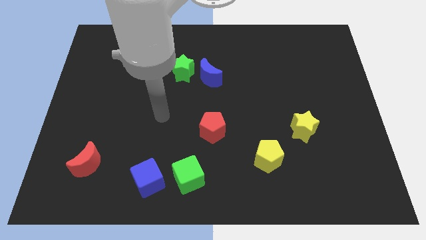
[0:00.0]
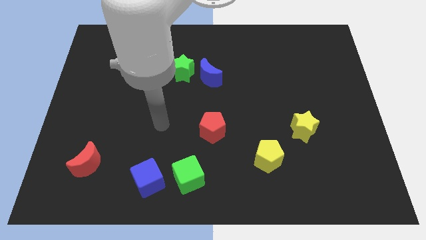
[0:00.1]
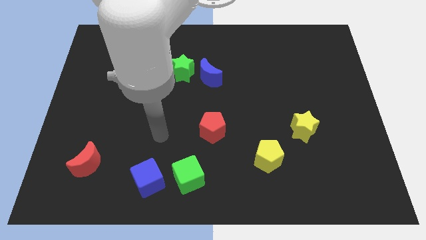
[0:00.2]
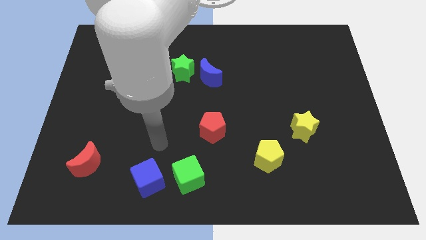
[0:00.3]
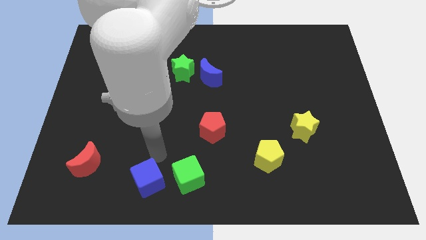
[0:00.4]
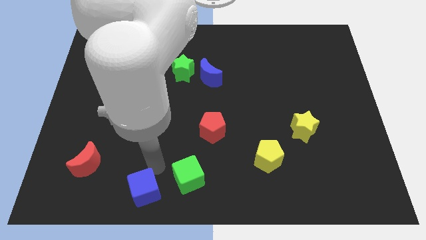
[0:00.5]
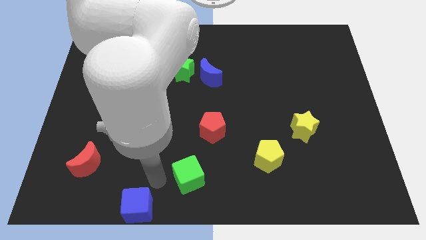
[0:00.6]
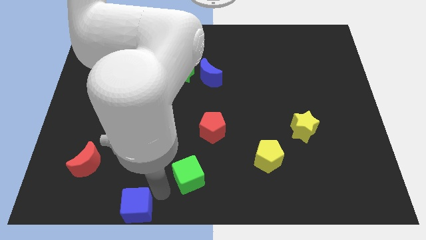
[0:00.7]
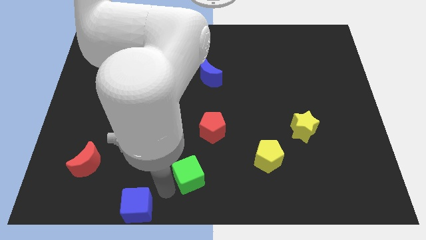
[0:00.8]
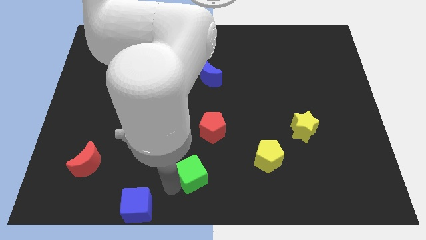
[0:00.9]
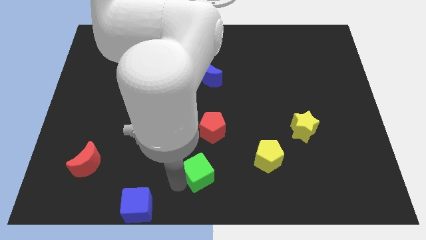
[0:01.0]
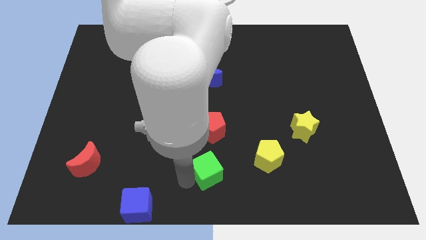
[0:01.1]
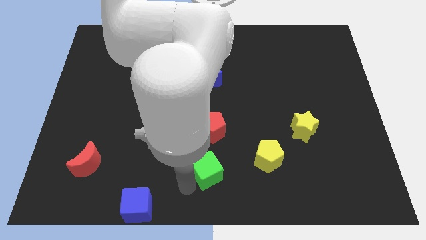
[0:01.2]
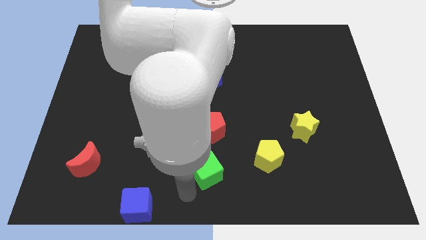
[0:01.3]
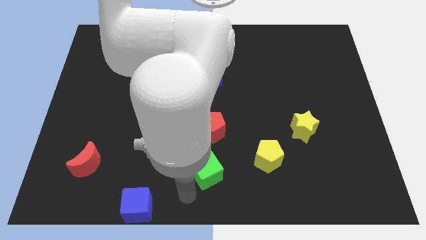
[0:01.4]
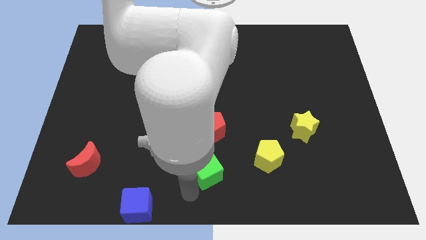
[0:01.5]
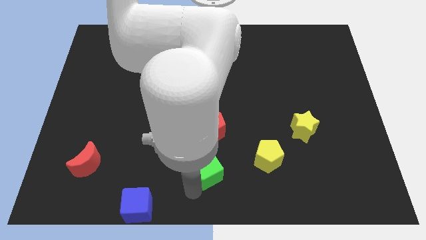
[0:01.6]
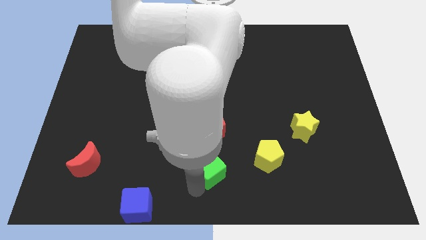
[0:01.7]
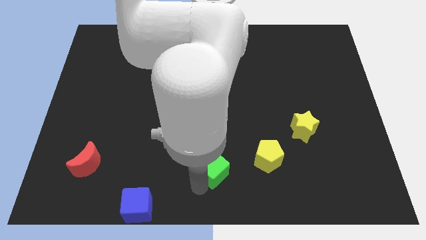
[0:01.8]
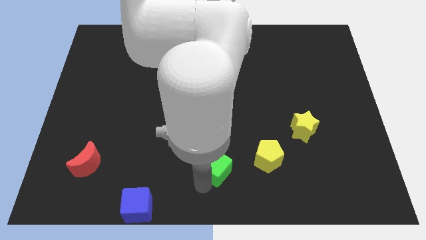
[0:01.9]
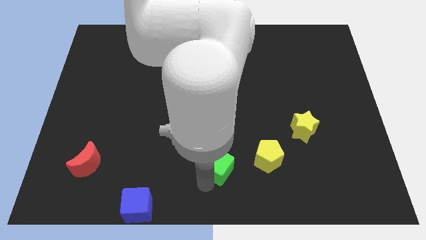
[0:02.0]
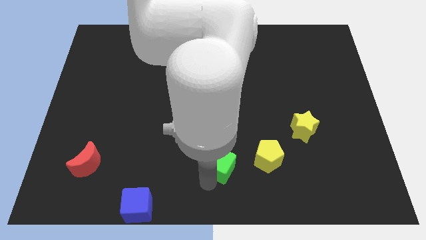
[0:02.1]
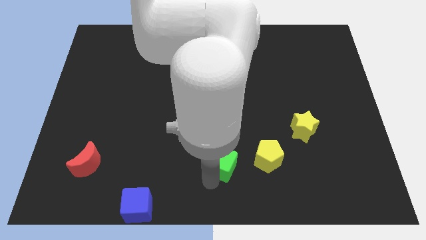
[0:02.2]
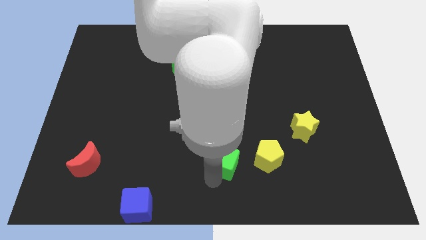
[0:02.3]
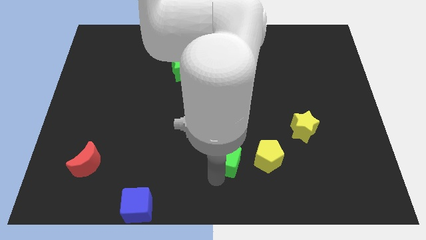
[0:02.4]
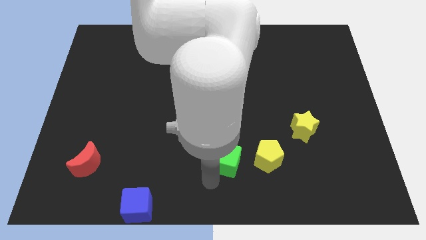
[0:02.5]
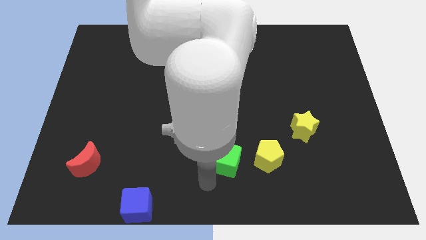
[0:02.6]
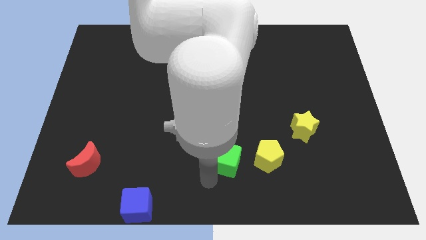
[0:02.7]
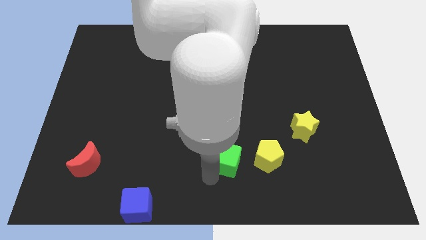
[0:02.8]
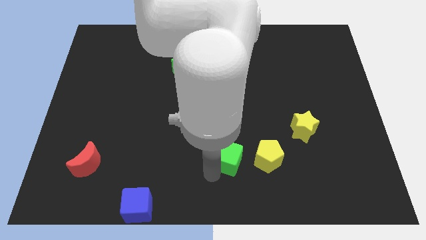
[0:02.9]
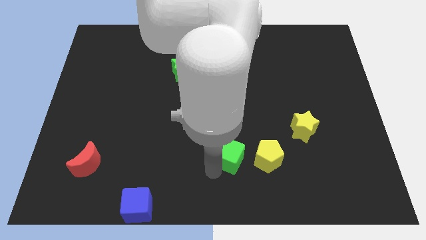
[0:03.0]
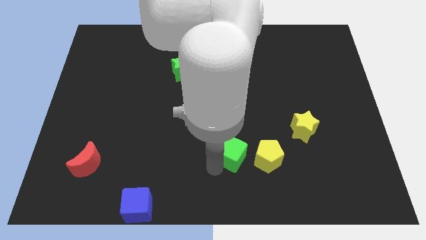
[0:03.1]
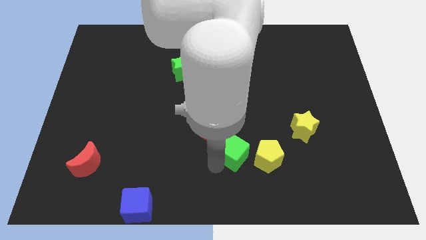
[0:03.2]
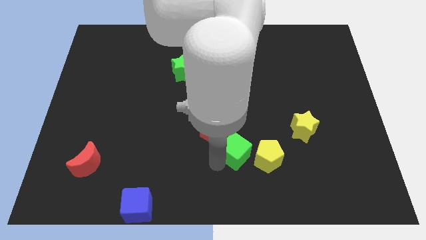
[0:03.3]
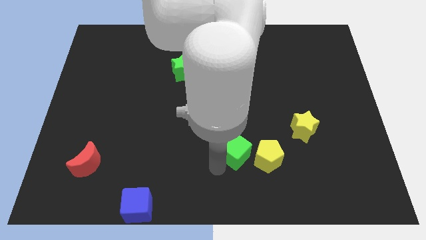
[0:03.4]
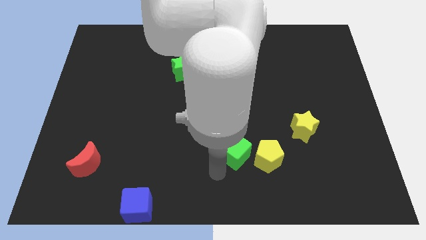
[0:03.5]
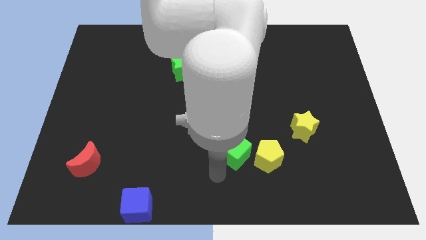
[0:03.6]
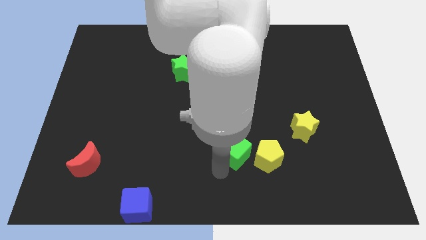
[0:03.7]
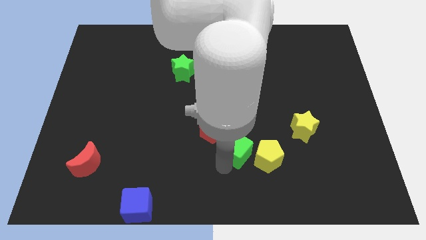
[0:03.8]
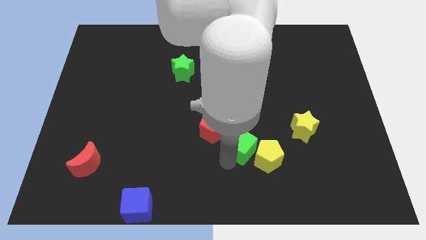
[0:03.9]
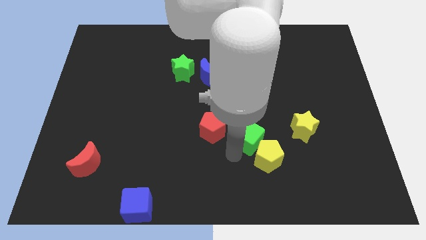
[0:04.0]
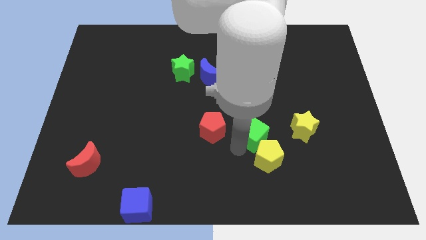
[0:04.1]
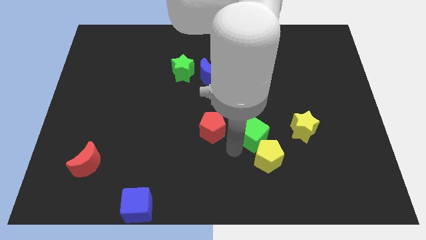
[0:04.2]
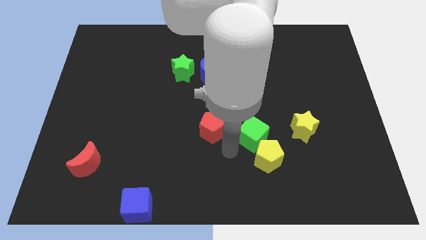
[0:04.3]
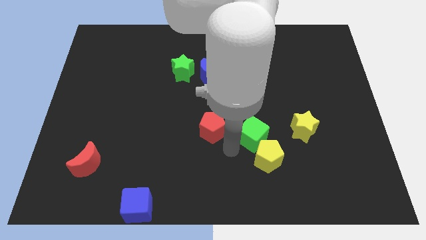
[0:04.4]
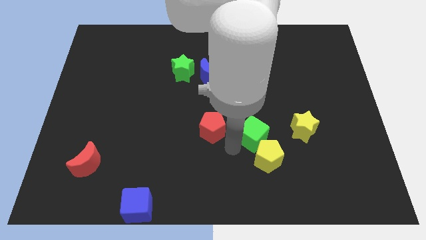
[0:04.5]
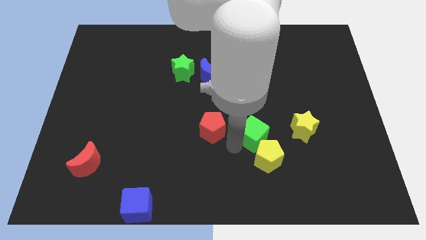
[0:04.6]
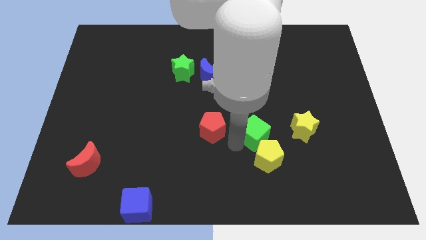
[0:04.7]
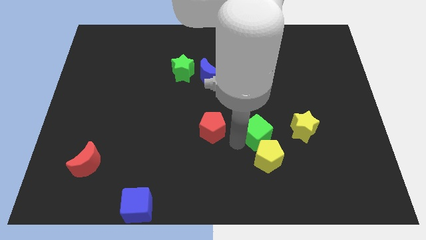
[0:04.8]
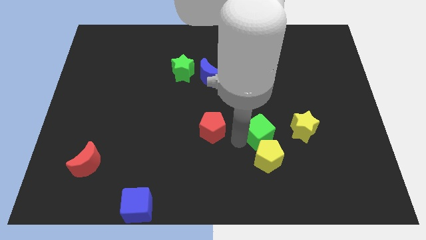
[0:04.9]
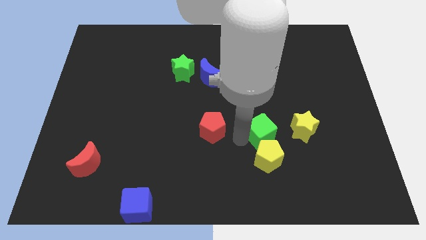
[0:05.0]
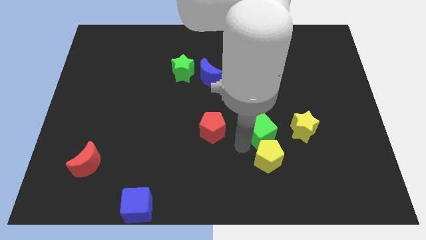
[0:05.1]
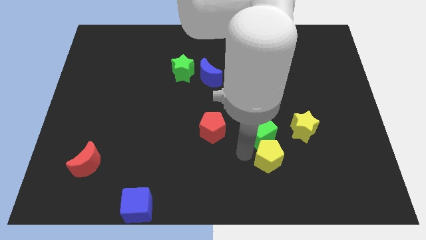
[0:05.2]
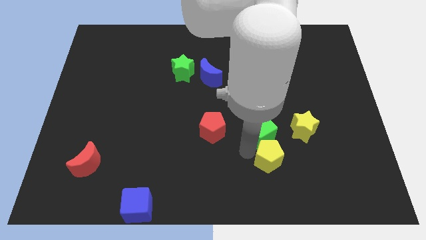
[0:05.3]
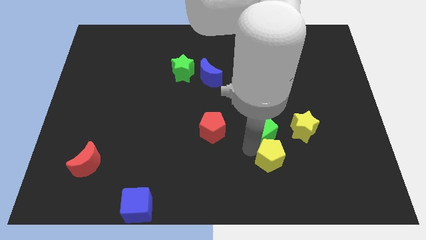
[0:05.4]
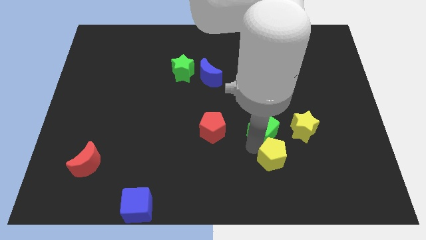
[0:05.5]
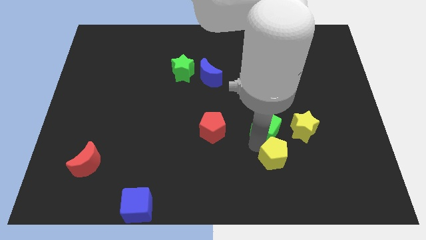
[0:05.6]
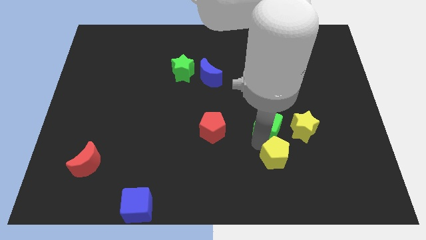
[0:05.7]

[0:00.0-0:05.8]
push the green cube upwards and right diagonally

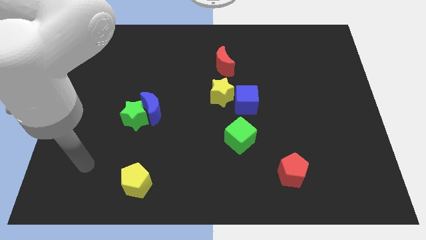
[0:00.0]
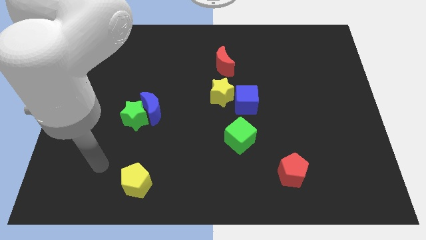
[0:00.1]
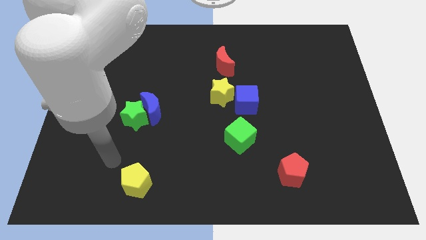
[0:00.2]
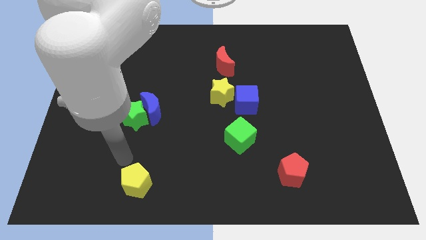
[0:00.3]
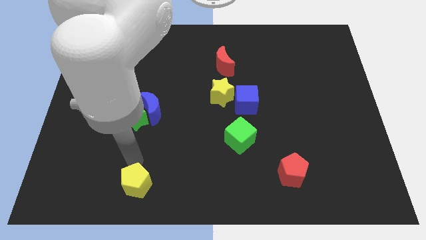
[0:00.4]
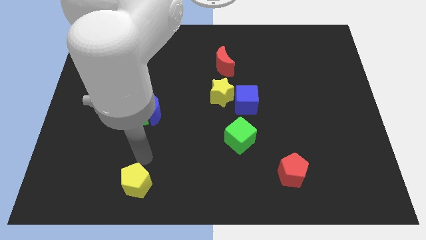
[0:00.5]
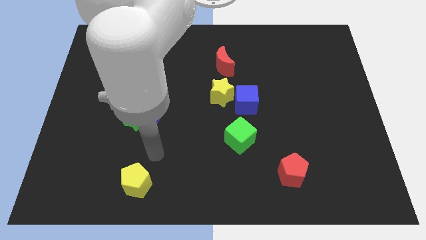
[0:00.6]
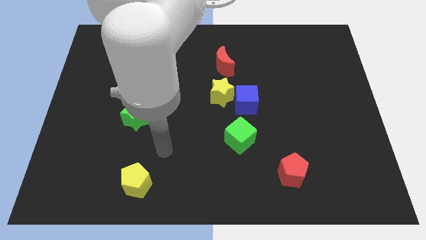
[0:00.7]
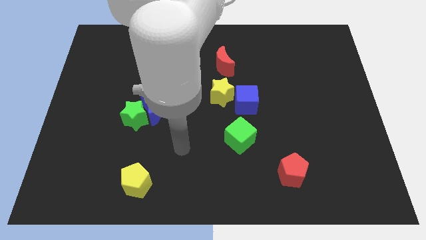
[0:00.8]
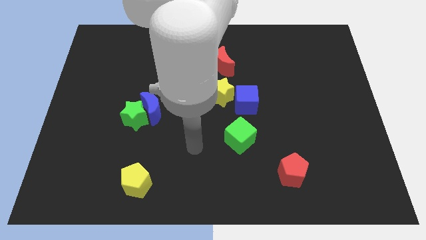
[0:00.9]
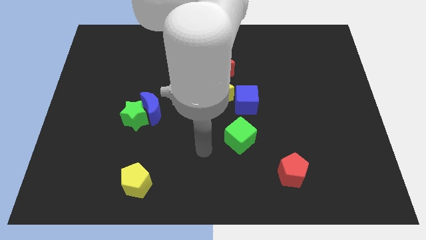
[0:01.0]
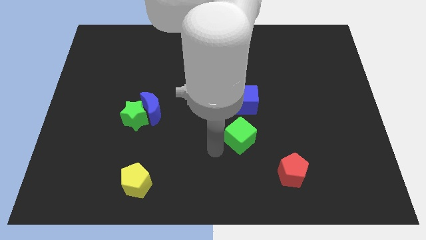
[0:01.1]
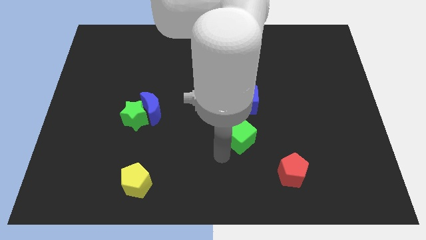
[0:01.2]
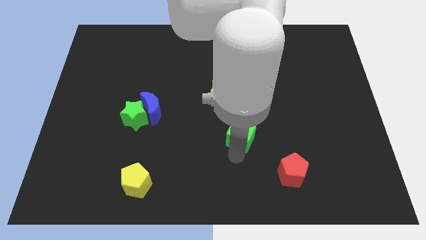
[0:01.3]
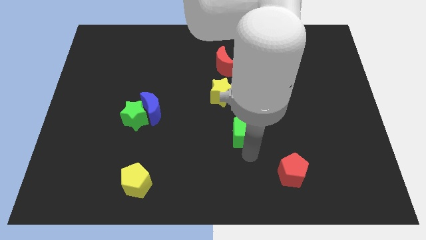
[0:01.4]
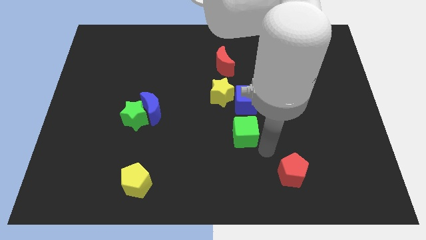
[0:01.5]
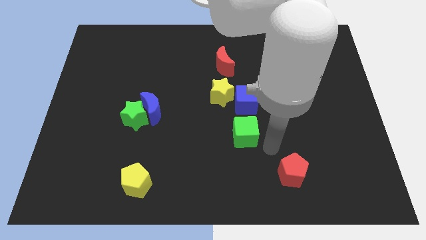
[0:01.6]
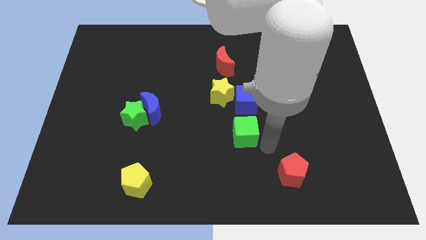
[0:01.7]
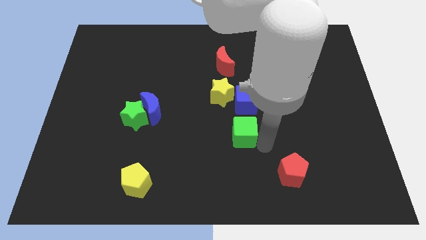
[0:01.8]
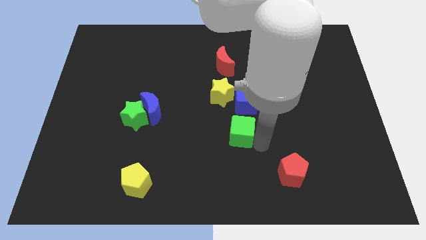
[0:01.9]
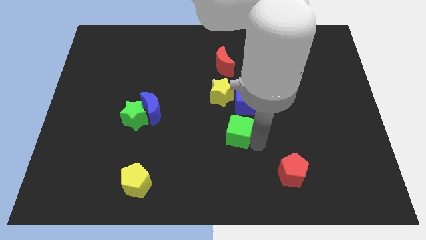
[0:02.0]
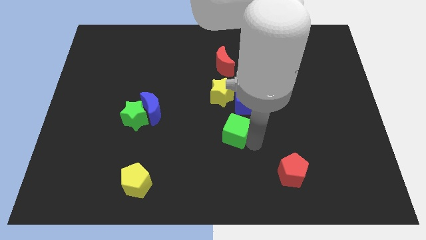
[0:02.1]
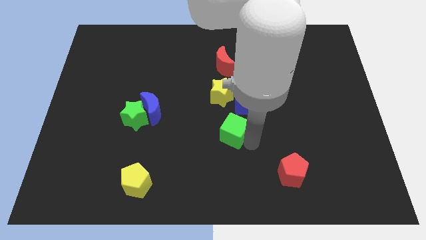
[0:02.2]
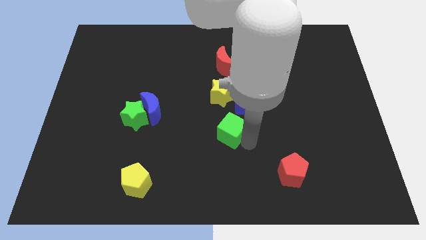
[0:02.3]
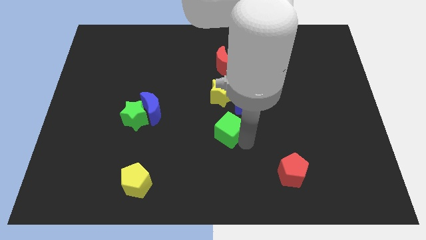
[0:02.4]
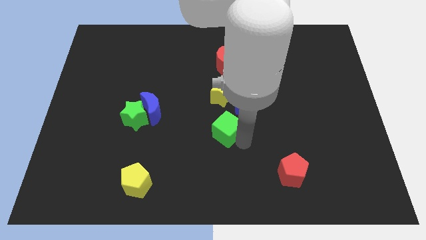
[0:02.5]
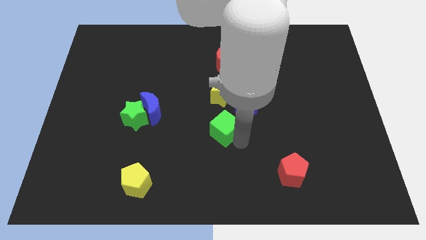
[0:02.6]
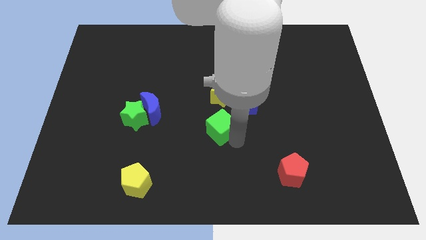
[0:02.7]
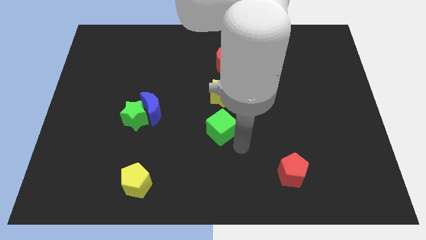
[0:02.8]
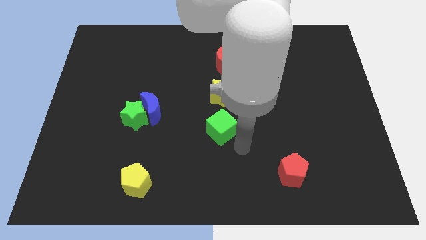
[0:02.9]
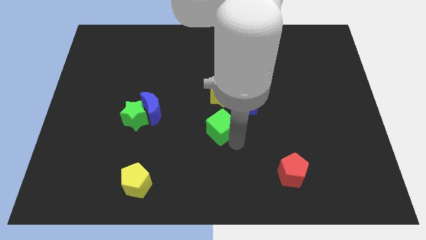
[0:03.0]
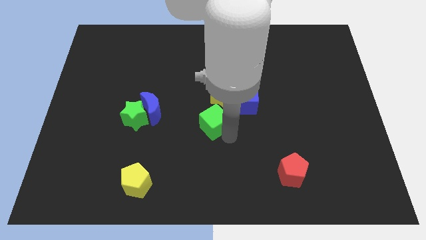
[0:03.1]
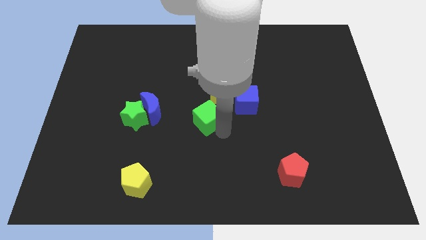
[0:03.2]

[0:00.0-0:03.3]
push the green cube a bit up and then to the left
